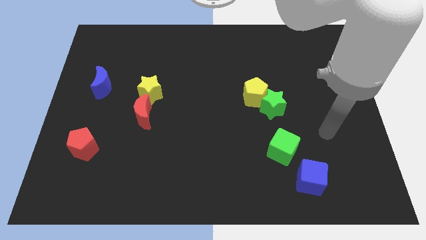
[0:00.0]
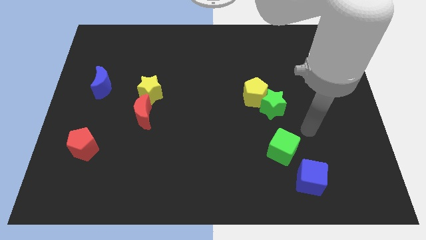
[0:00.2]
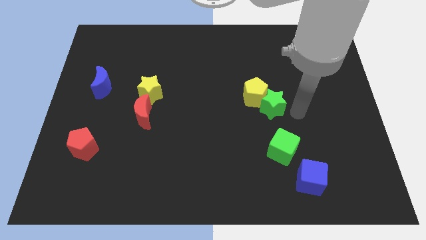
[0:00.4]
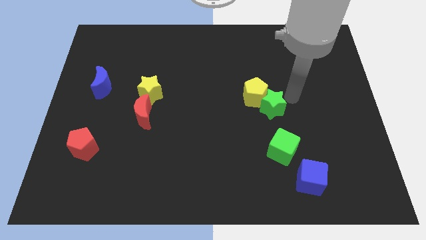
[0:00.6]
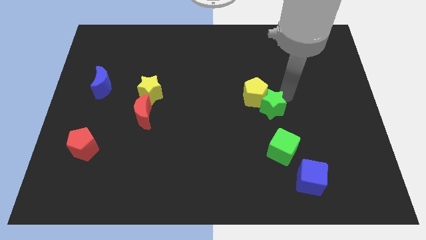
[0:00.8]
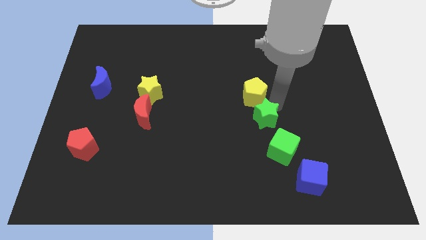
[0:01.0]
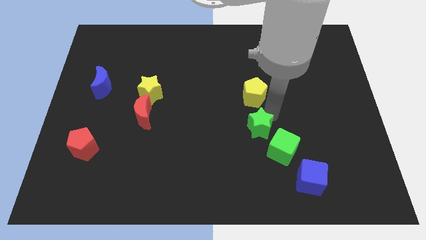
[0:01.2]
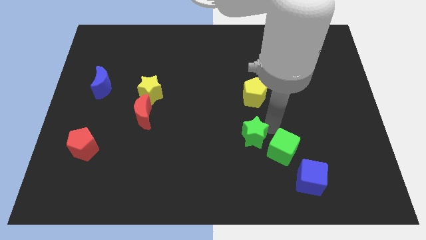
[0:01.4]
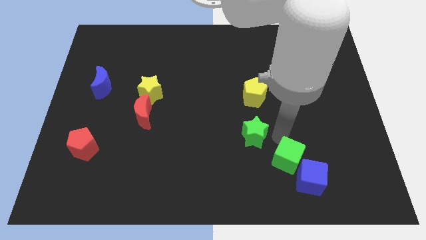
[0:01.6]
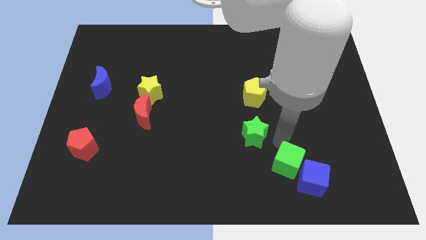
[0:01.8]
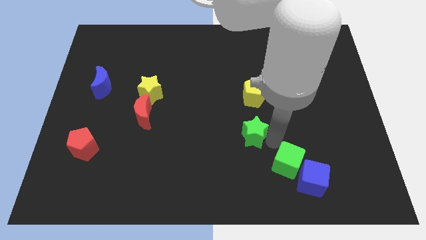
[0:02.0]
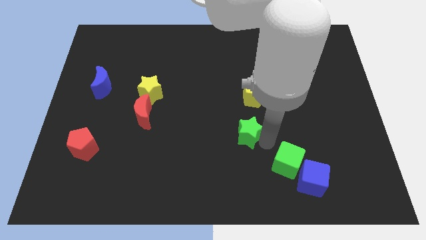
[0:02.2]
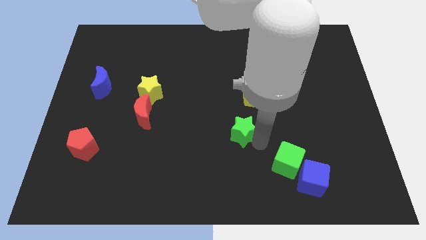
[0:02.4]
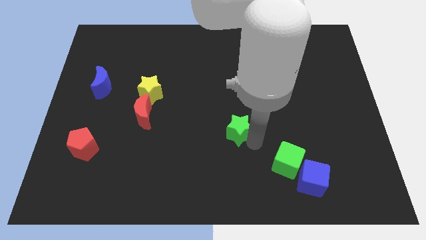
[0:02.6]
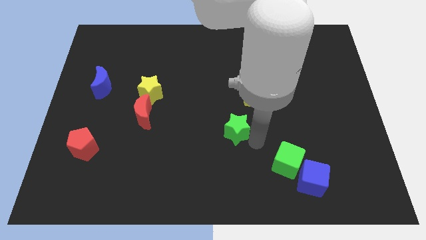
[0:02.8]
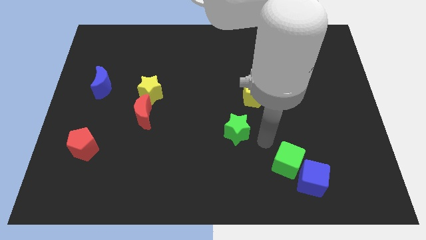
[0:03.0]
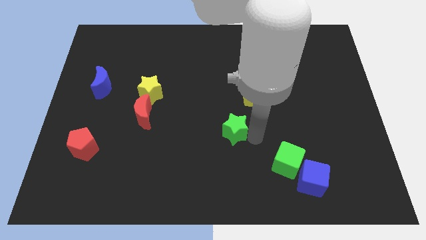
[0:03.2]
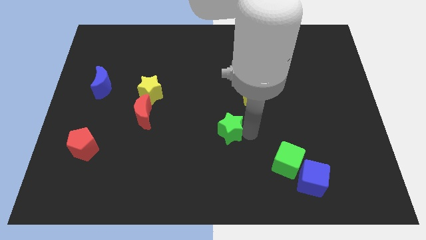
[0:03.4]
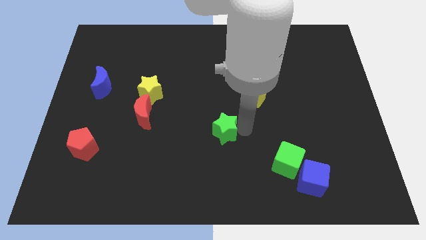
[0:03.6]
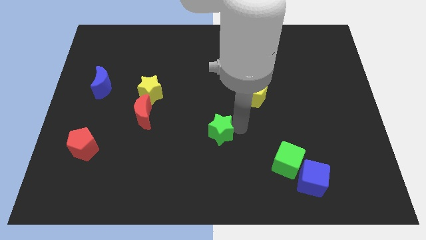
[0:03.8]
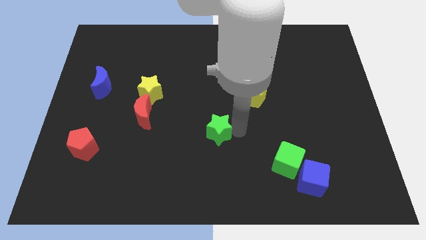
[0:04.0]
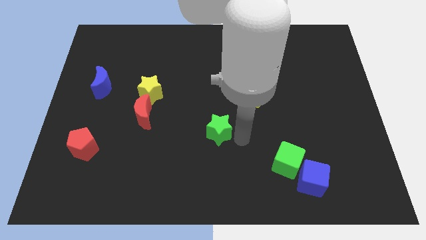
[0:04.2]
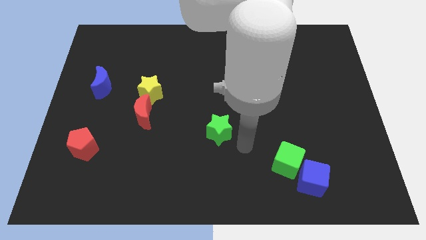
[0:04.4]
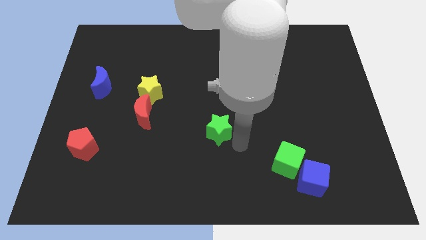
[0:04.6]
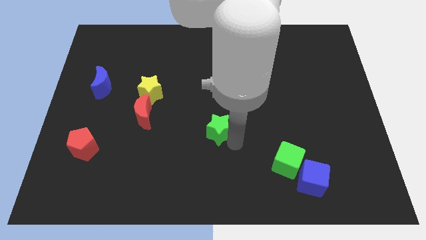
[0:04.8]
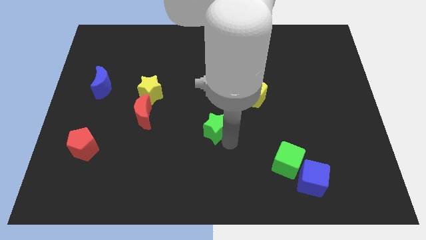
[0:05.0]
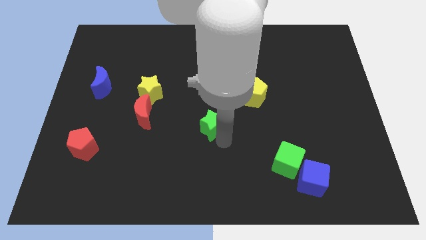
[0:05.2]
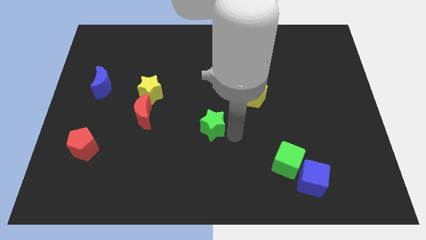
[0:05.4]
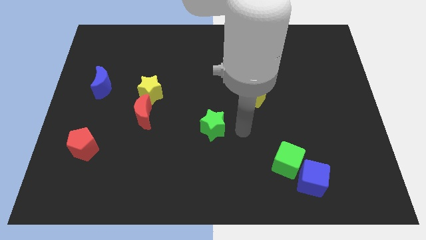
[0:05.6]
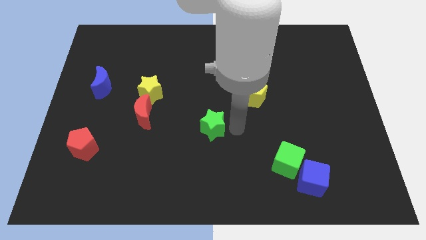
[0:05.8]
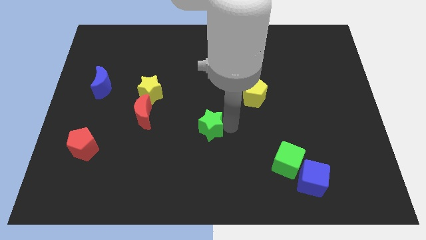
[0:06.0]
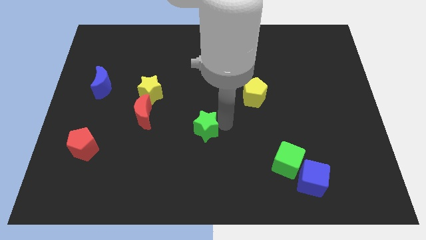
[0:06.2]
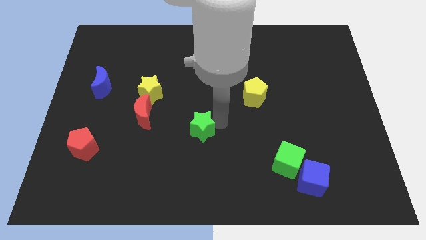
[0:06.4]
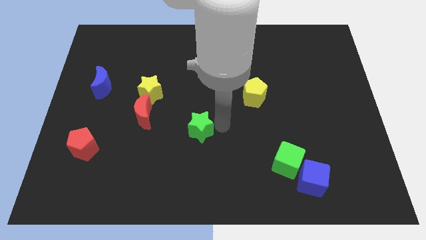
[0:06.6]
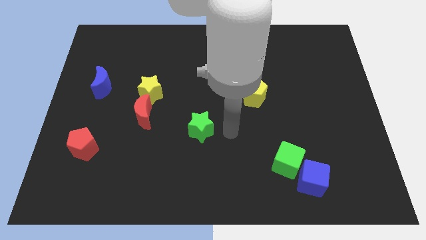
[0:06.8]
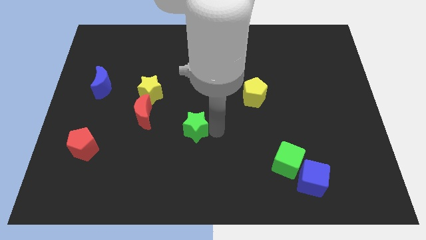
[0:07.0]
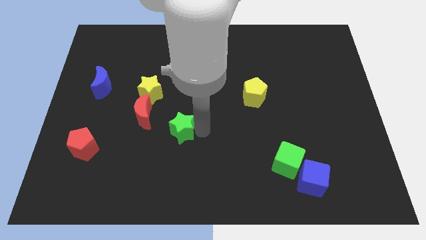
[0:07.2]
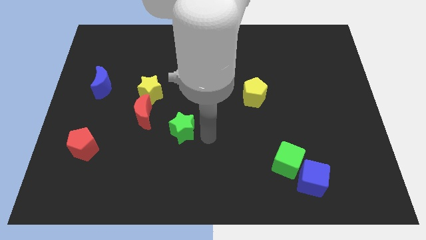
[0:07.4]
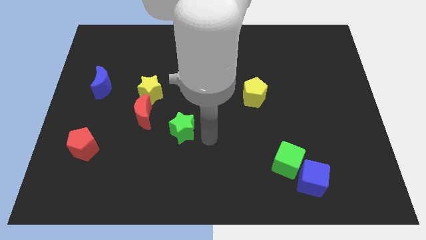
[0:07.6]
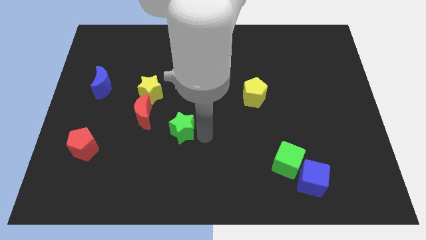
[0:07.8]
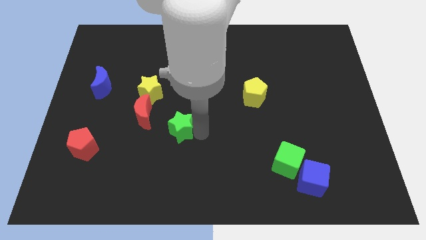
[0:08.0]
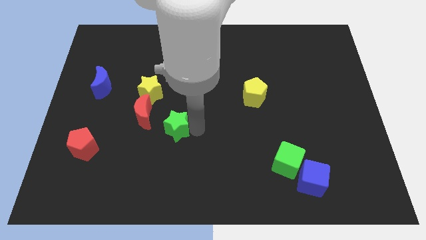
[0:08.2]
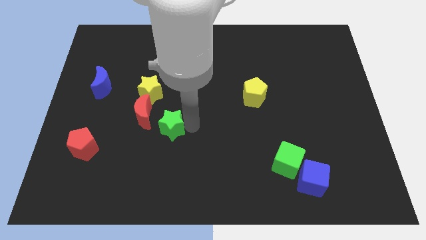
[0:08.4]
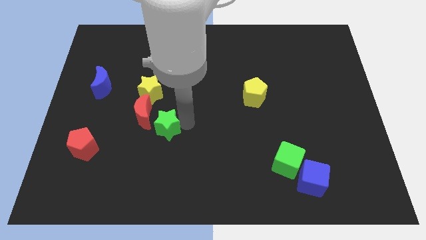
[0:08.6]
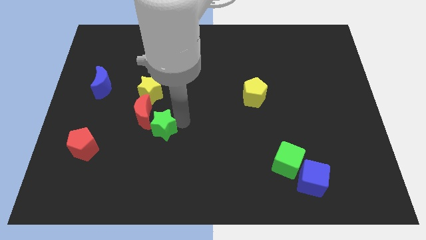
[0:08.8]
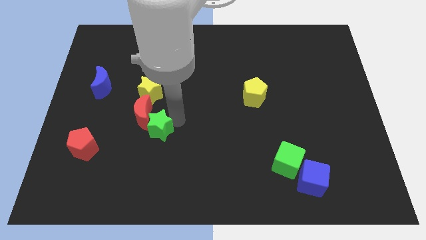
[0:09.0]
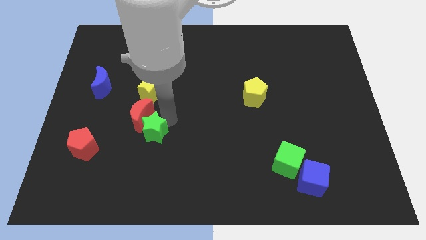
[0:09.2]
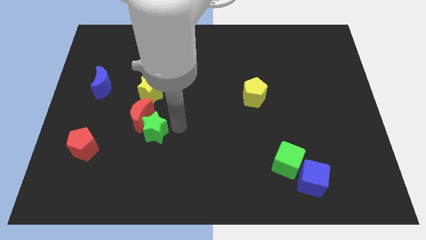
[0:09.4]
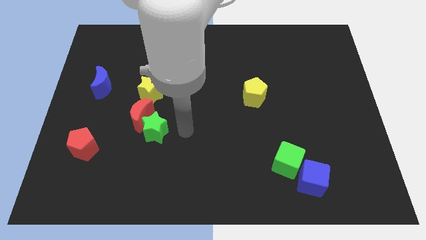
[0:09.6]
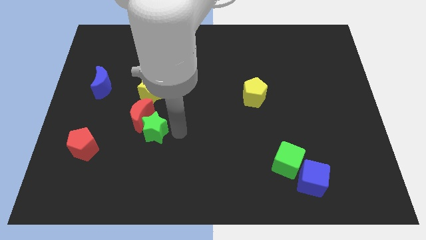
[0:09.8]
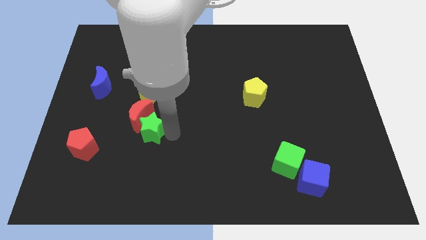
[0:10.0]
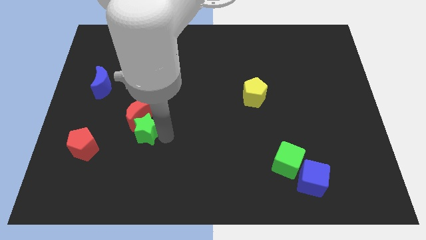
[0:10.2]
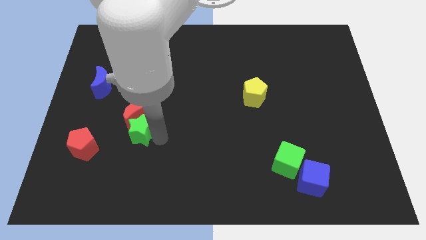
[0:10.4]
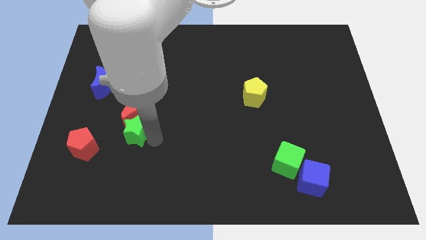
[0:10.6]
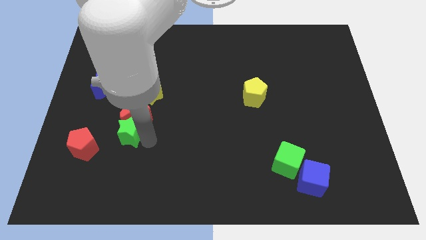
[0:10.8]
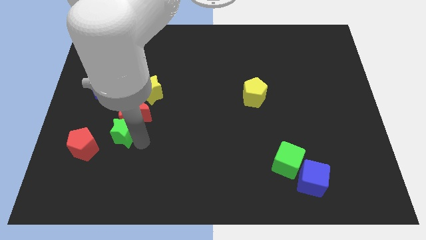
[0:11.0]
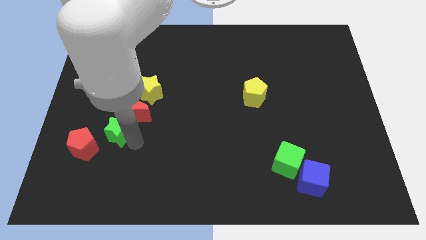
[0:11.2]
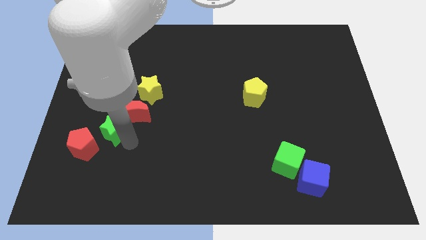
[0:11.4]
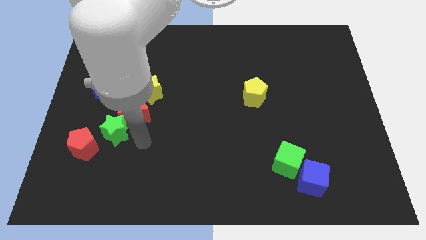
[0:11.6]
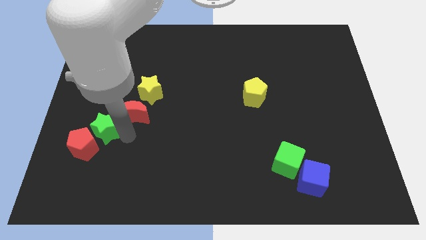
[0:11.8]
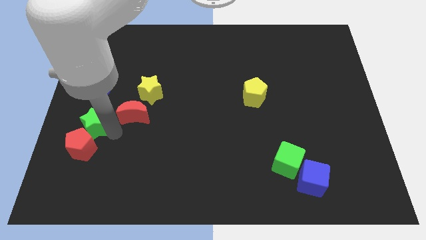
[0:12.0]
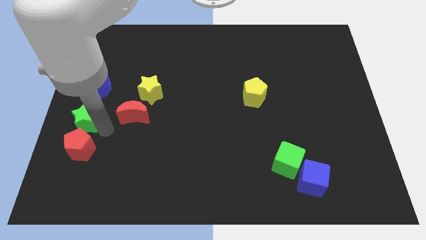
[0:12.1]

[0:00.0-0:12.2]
push the green star to the left side

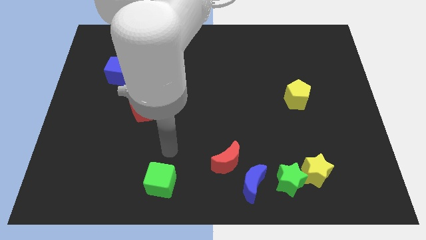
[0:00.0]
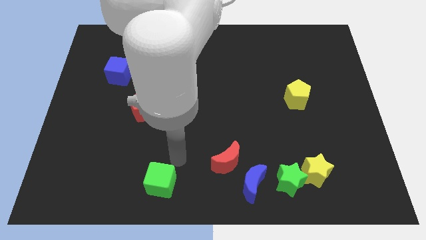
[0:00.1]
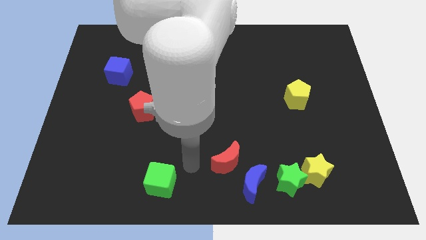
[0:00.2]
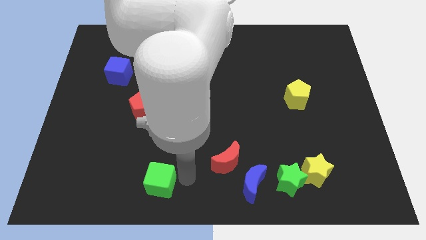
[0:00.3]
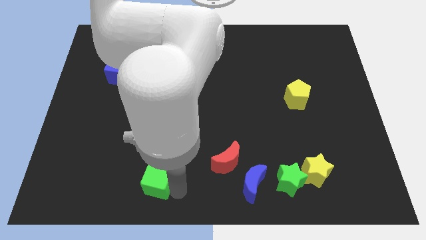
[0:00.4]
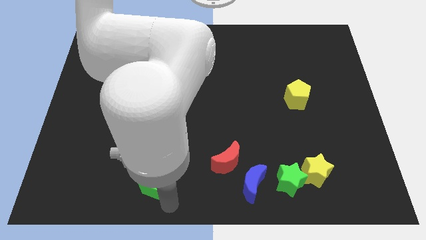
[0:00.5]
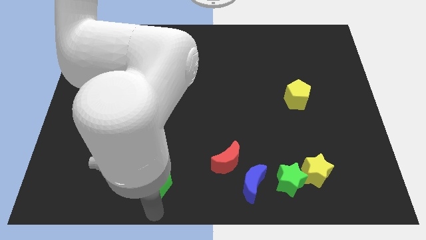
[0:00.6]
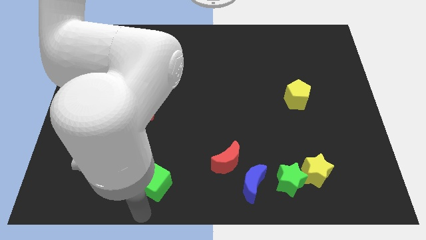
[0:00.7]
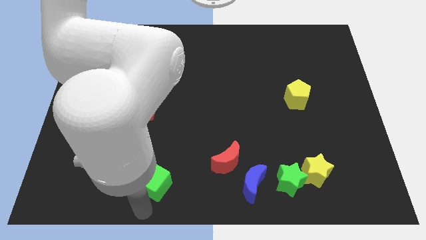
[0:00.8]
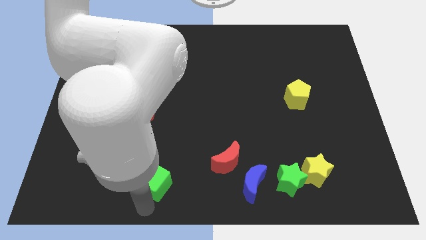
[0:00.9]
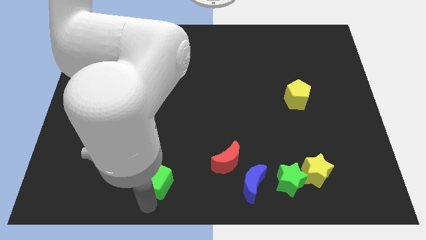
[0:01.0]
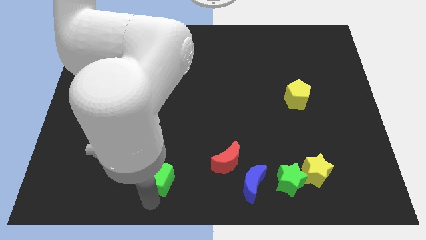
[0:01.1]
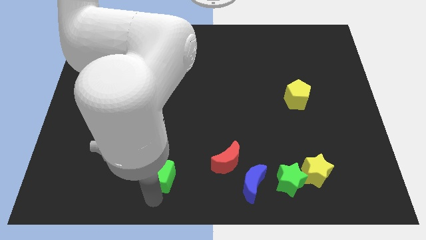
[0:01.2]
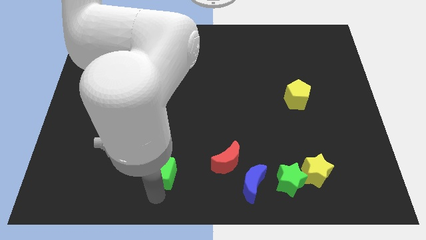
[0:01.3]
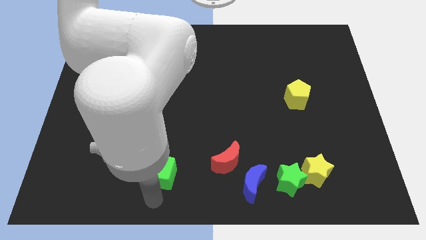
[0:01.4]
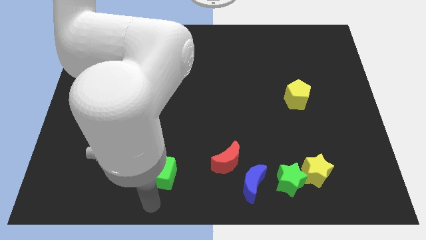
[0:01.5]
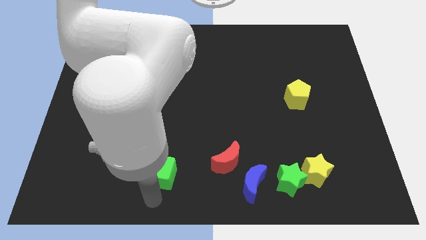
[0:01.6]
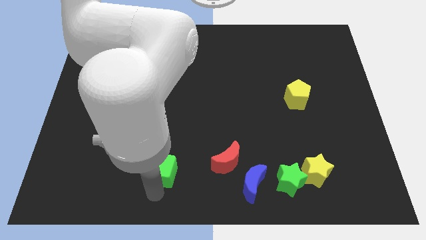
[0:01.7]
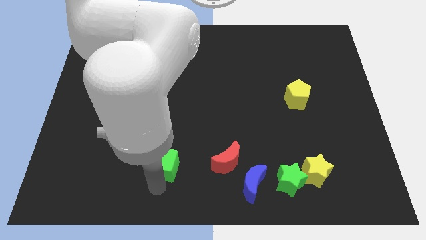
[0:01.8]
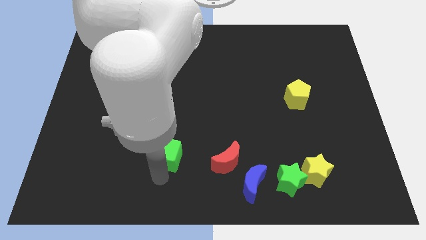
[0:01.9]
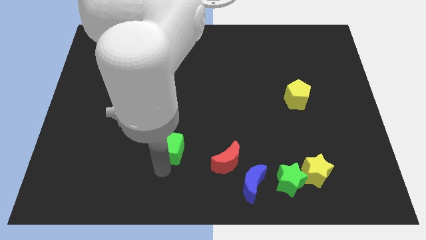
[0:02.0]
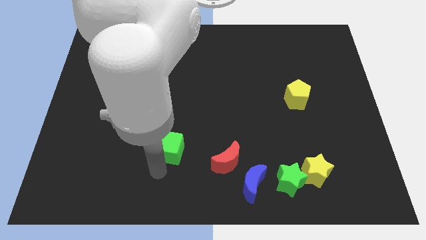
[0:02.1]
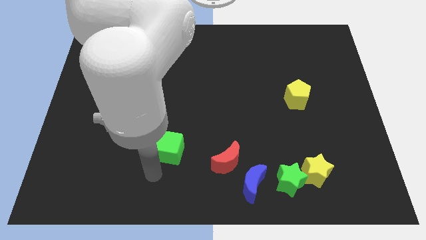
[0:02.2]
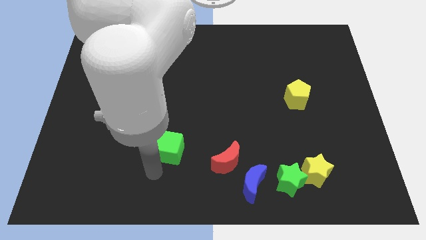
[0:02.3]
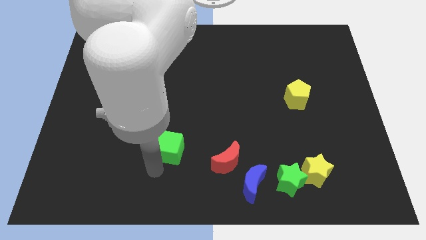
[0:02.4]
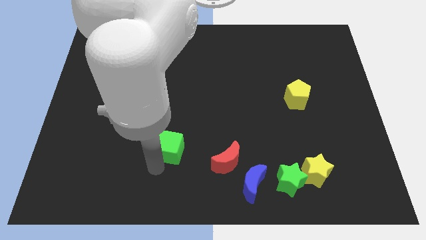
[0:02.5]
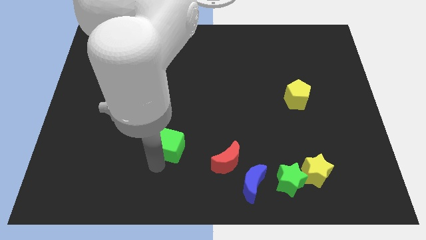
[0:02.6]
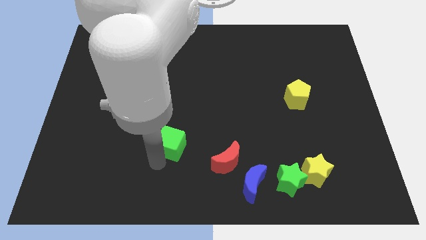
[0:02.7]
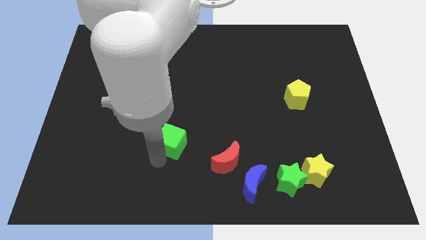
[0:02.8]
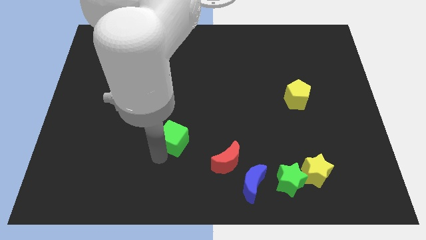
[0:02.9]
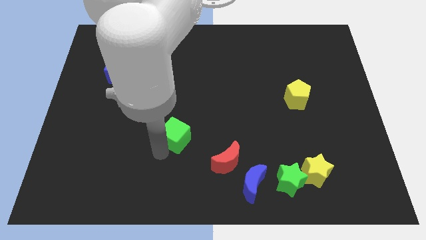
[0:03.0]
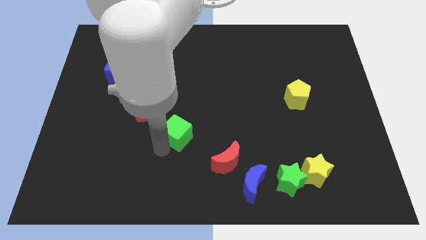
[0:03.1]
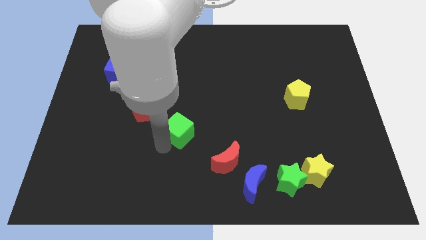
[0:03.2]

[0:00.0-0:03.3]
put the green cube to the middle of the board
